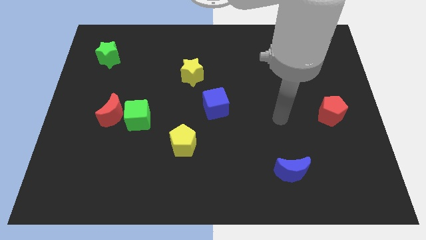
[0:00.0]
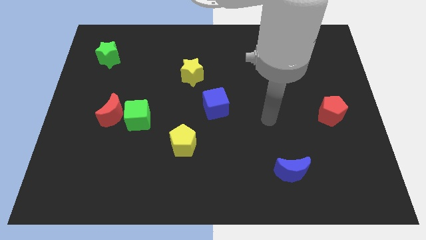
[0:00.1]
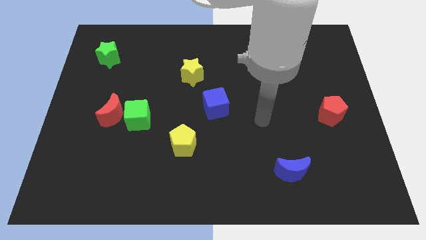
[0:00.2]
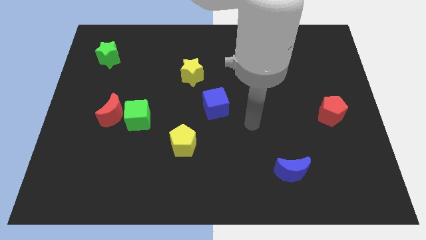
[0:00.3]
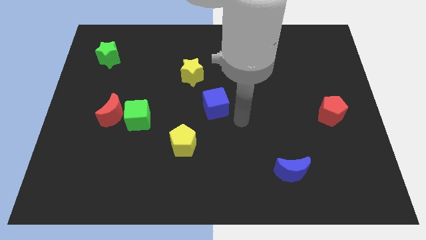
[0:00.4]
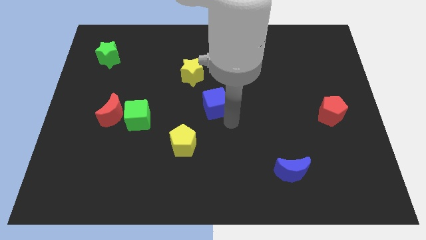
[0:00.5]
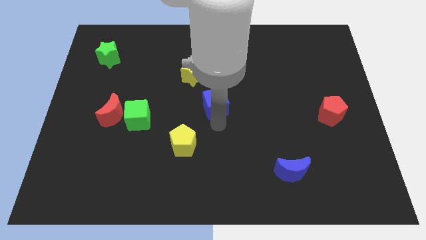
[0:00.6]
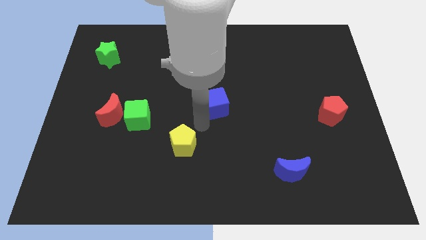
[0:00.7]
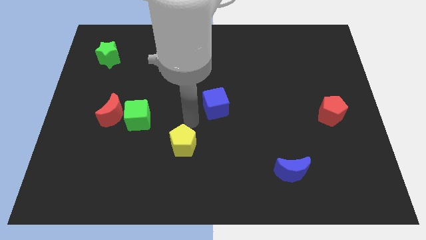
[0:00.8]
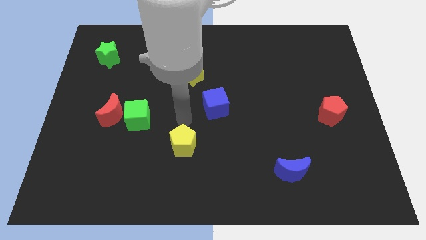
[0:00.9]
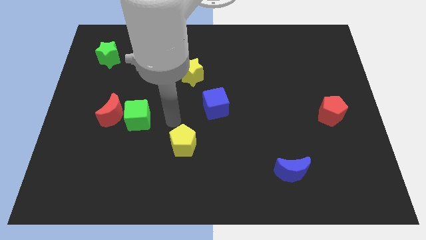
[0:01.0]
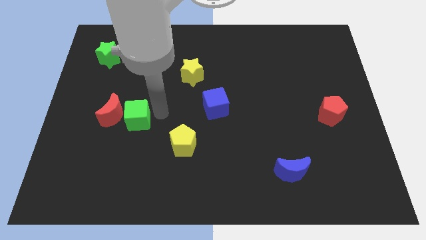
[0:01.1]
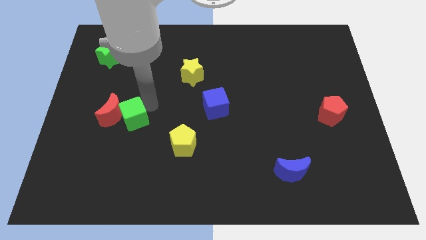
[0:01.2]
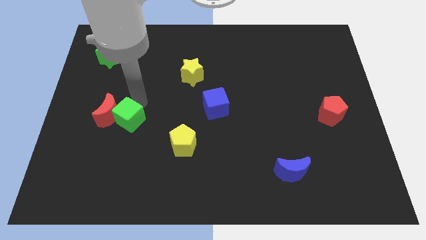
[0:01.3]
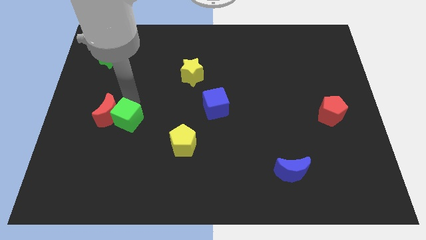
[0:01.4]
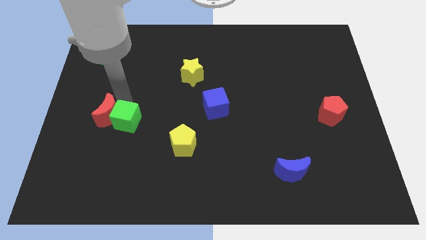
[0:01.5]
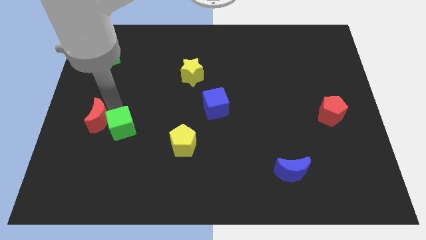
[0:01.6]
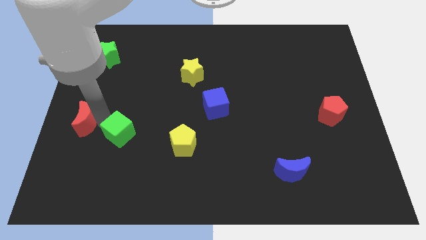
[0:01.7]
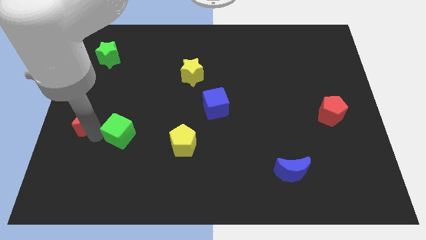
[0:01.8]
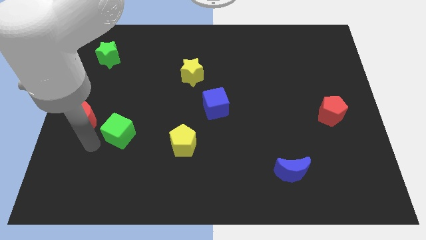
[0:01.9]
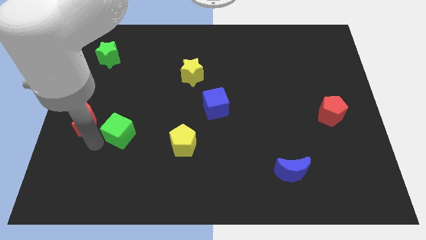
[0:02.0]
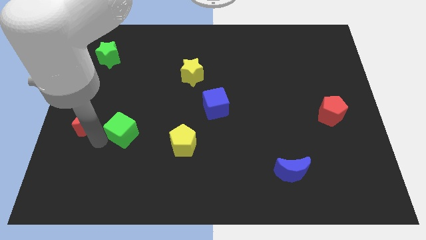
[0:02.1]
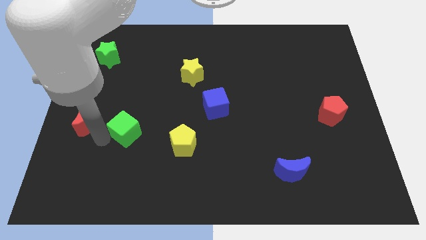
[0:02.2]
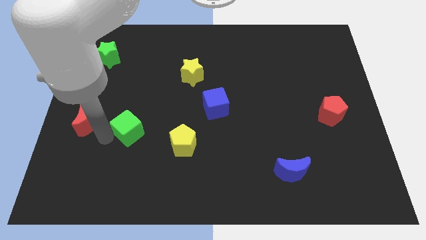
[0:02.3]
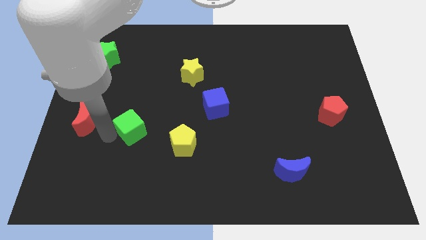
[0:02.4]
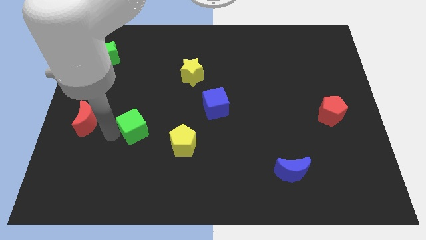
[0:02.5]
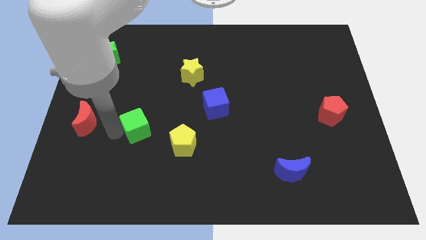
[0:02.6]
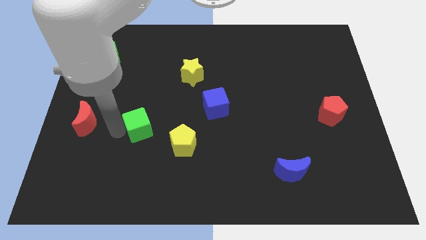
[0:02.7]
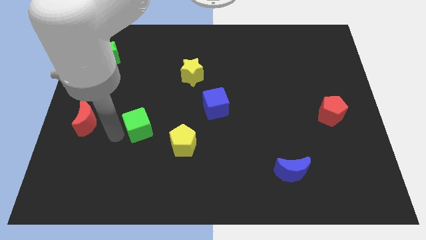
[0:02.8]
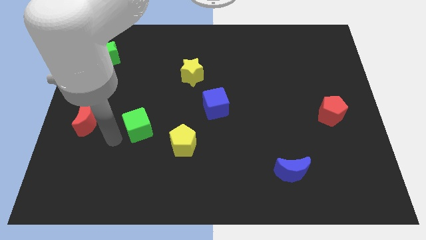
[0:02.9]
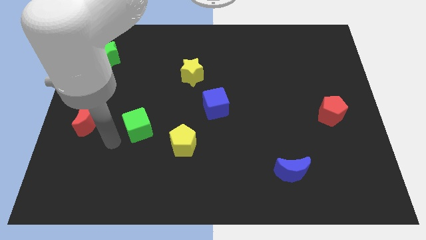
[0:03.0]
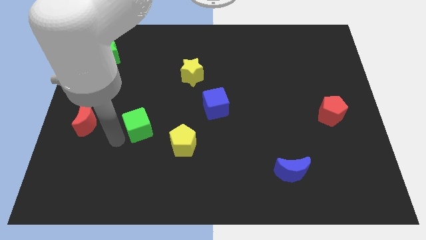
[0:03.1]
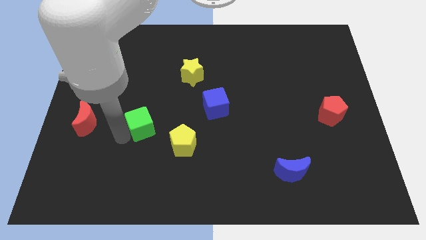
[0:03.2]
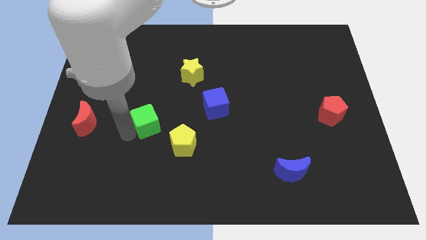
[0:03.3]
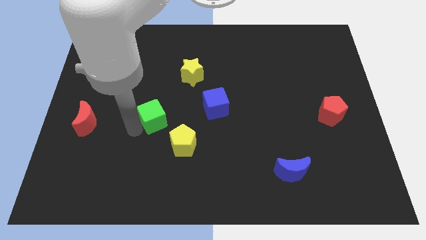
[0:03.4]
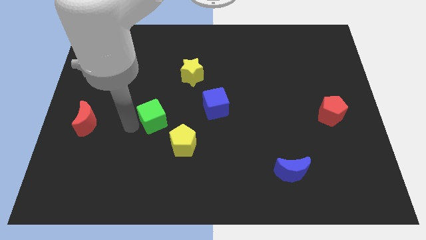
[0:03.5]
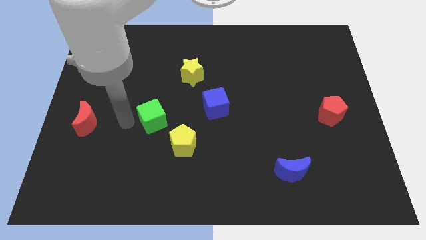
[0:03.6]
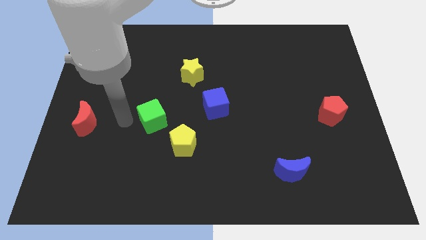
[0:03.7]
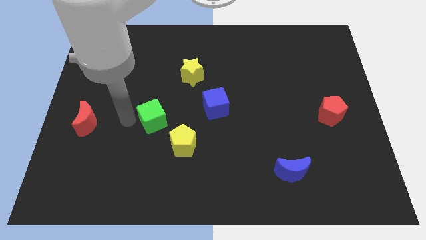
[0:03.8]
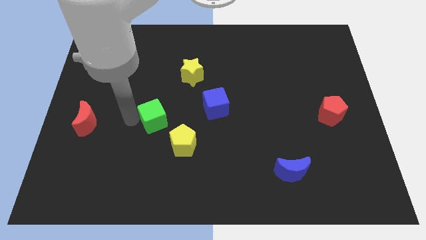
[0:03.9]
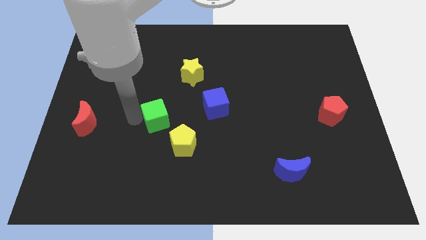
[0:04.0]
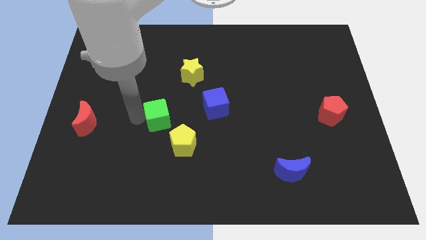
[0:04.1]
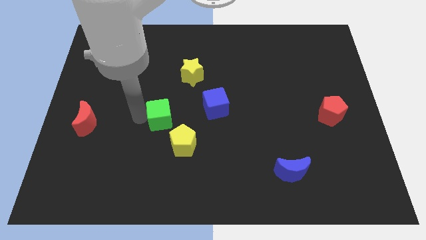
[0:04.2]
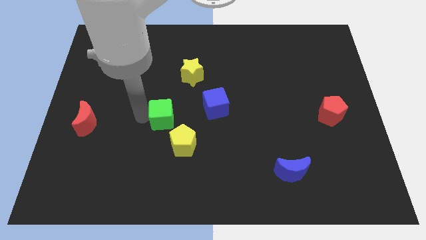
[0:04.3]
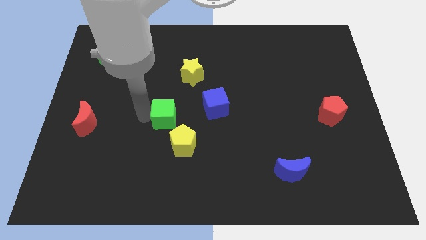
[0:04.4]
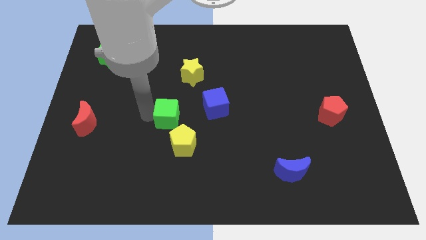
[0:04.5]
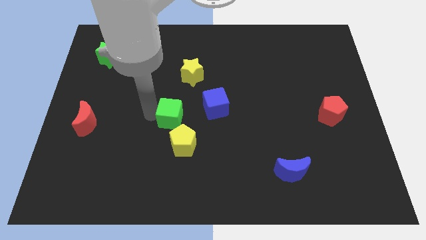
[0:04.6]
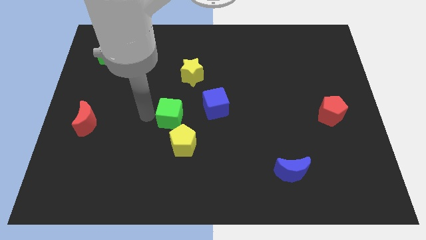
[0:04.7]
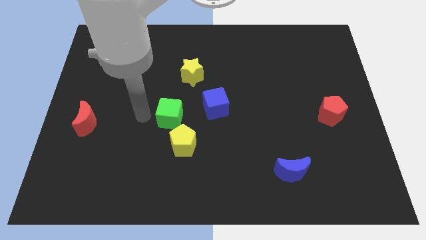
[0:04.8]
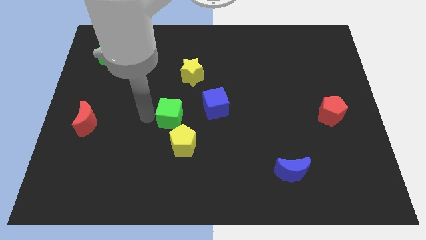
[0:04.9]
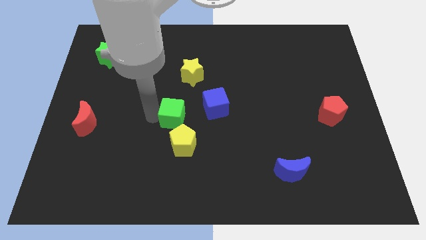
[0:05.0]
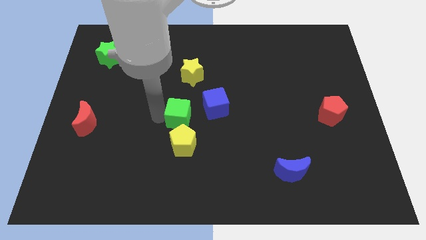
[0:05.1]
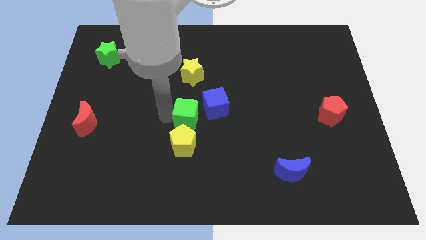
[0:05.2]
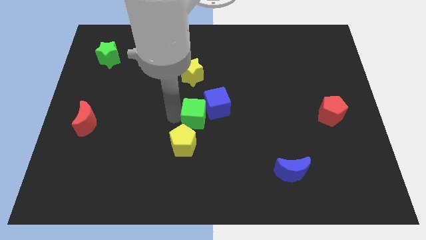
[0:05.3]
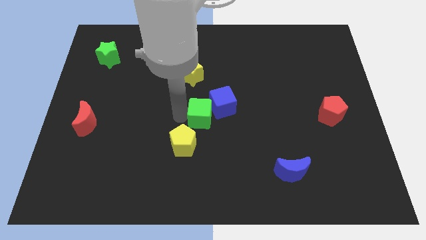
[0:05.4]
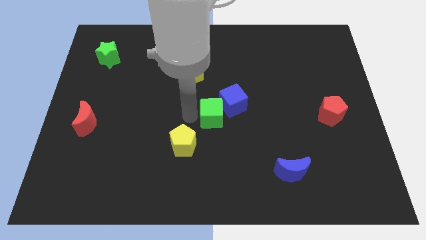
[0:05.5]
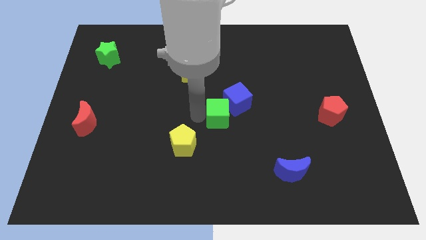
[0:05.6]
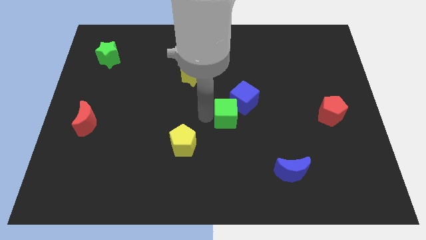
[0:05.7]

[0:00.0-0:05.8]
move the green cube right

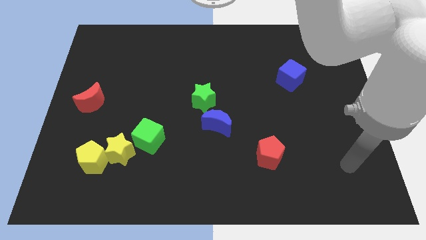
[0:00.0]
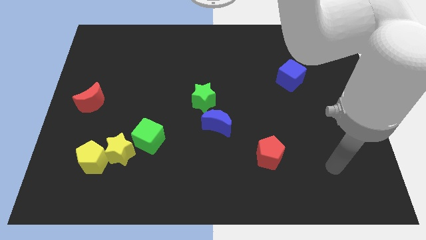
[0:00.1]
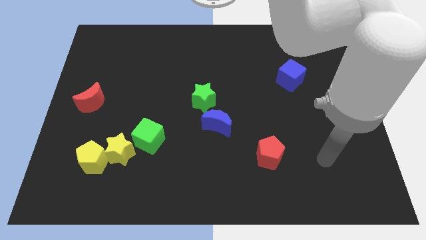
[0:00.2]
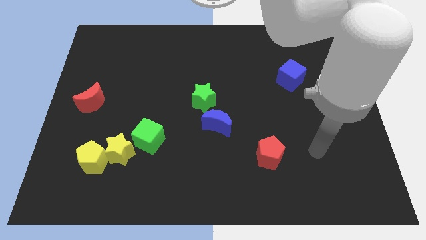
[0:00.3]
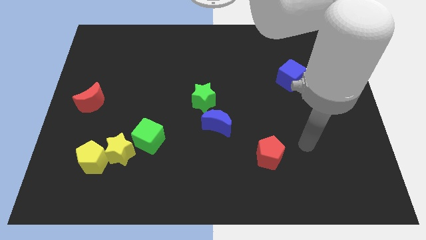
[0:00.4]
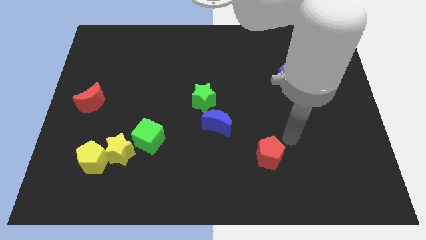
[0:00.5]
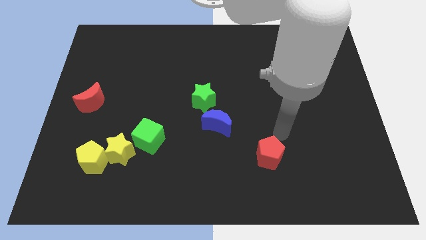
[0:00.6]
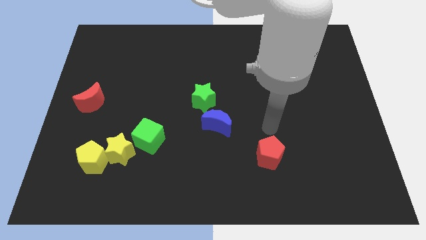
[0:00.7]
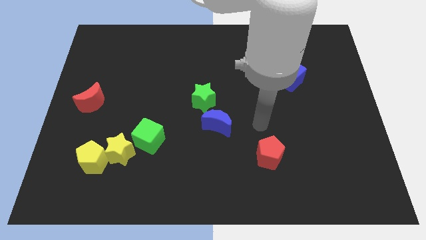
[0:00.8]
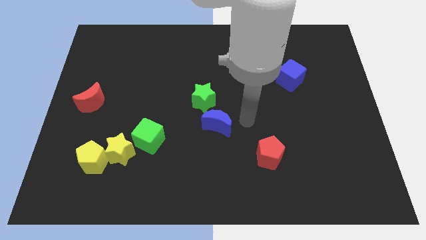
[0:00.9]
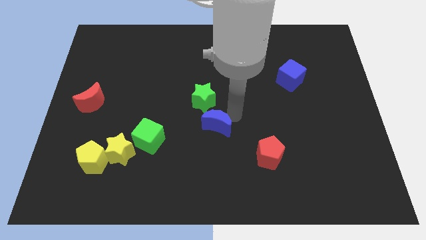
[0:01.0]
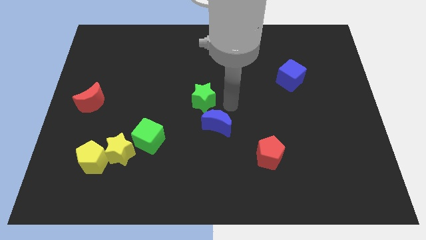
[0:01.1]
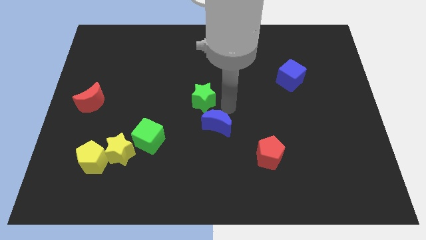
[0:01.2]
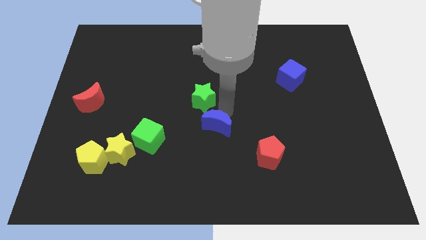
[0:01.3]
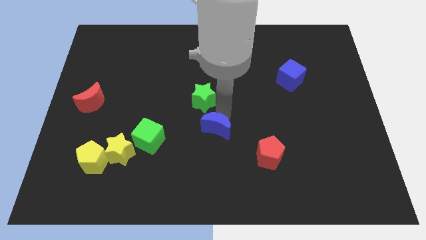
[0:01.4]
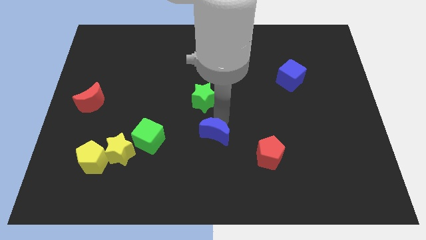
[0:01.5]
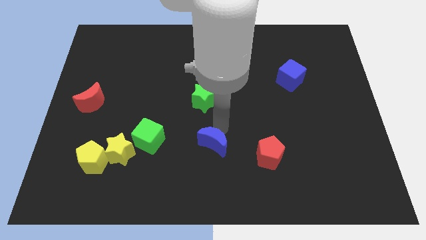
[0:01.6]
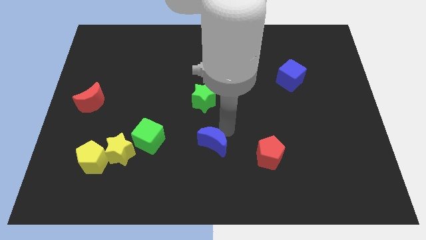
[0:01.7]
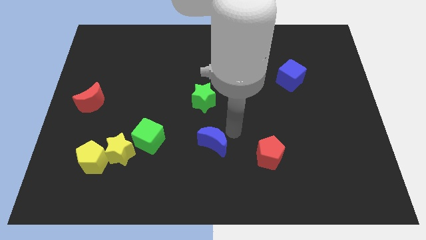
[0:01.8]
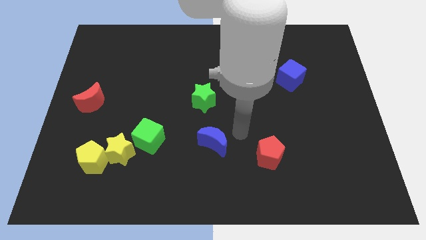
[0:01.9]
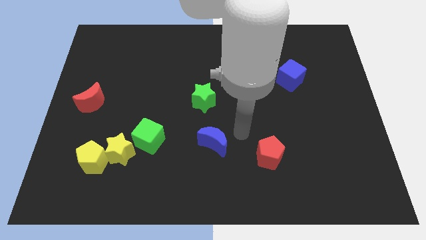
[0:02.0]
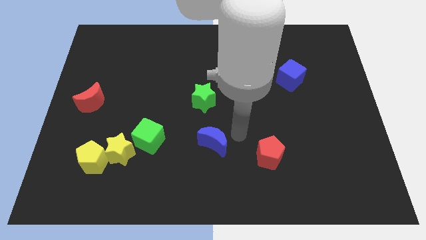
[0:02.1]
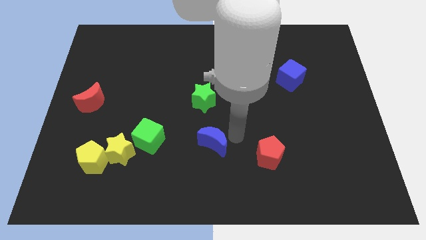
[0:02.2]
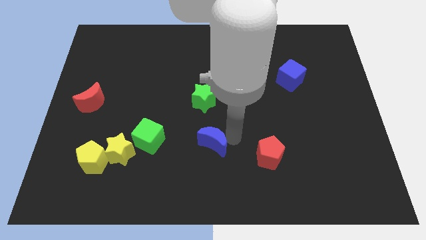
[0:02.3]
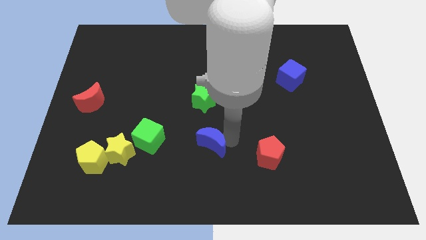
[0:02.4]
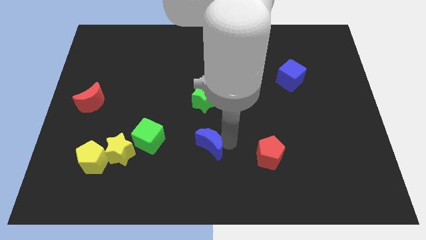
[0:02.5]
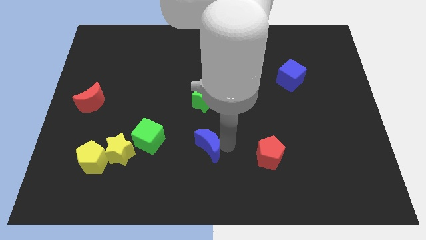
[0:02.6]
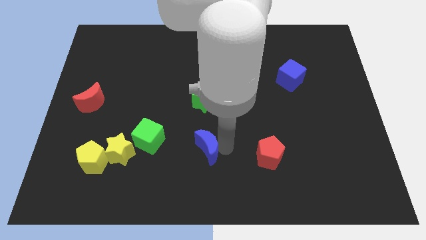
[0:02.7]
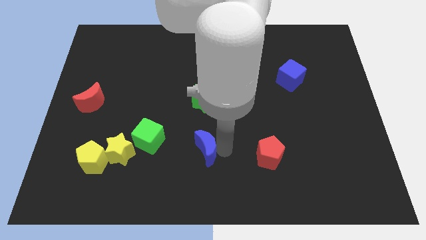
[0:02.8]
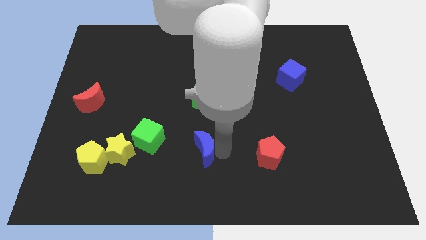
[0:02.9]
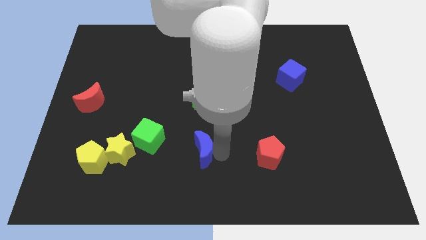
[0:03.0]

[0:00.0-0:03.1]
slide the blue moon down and then left somewhat
